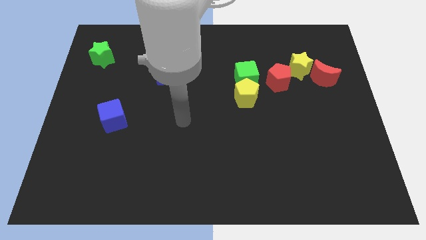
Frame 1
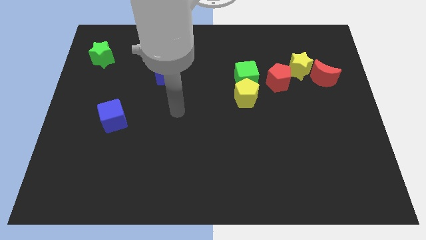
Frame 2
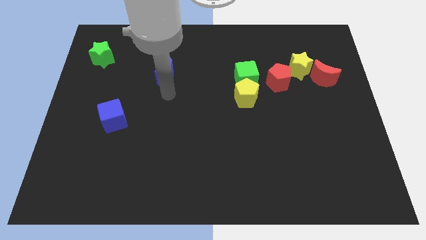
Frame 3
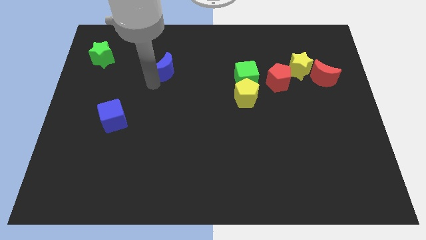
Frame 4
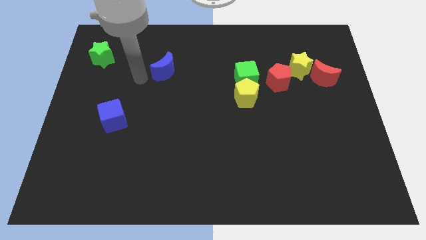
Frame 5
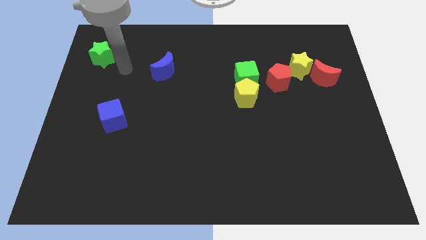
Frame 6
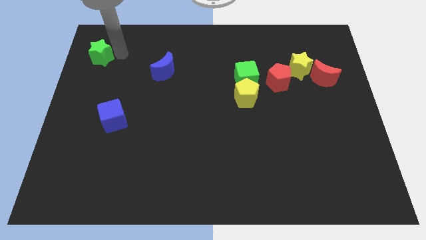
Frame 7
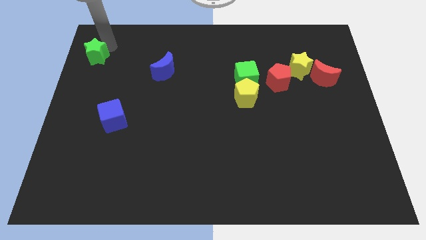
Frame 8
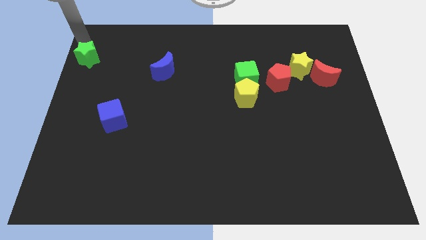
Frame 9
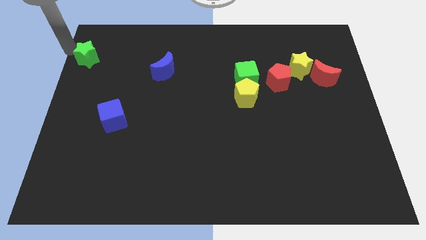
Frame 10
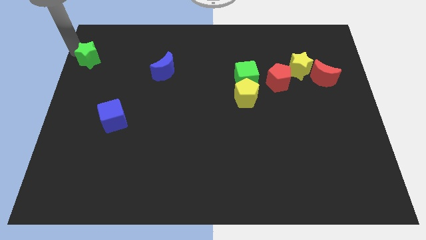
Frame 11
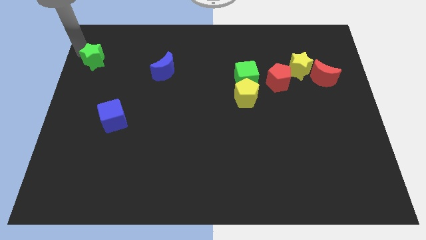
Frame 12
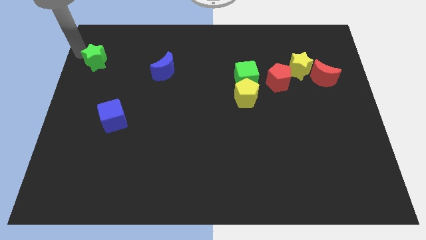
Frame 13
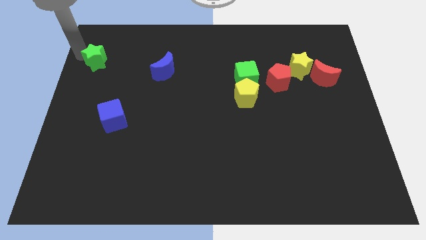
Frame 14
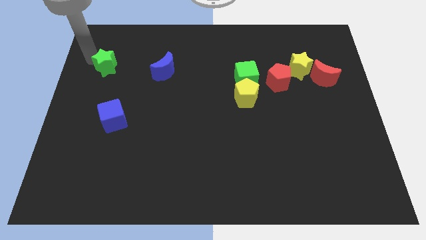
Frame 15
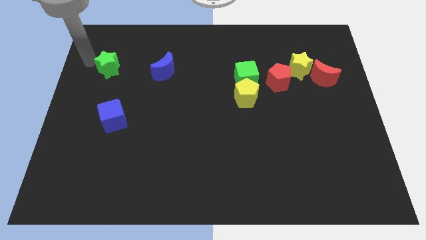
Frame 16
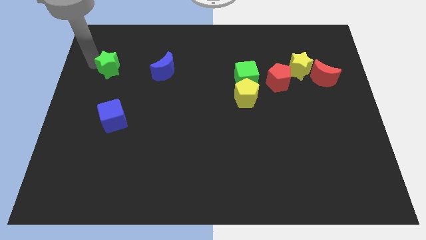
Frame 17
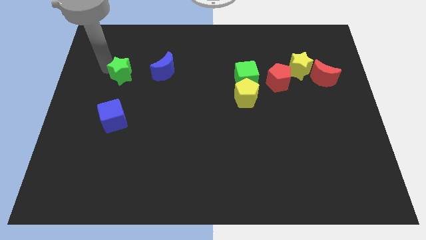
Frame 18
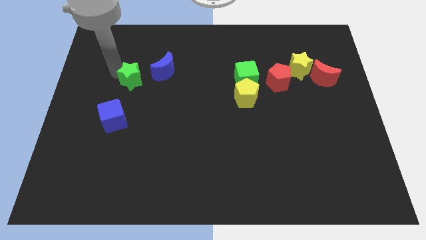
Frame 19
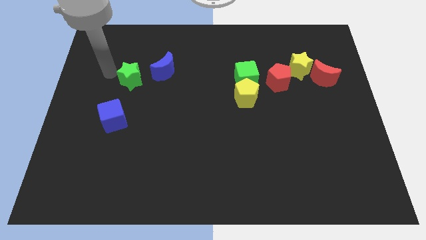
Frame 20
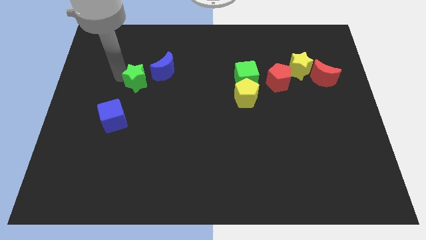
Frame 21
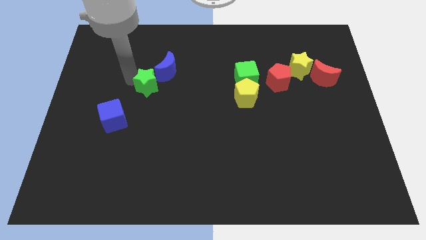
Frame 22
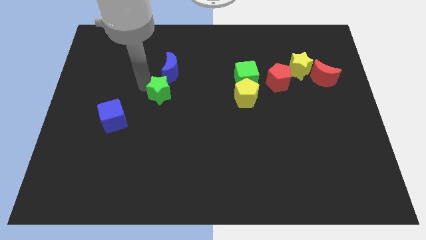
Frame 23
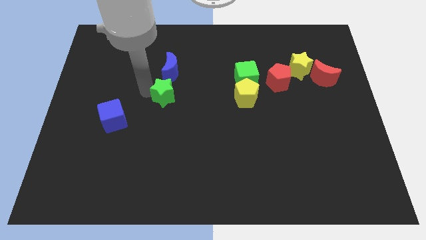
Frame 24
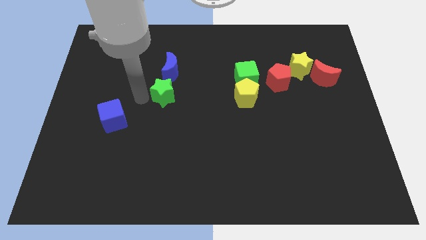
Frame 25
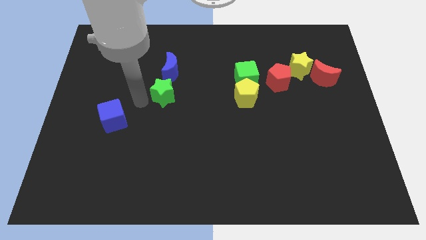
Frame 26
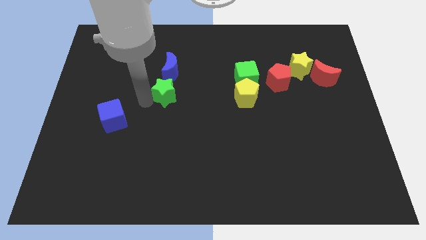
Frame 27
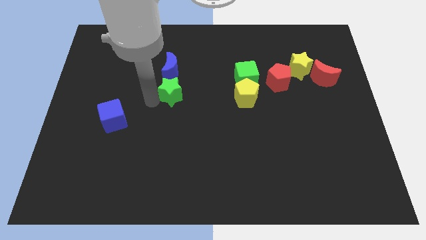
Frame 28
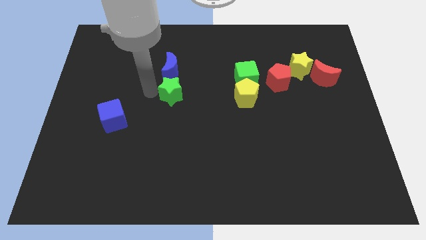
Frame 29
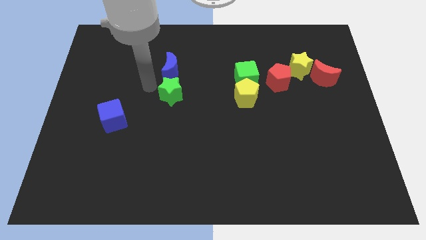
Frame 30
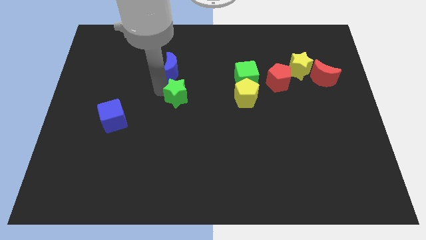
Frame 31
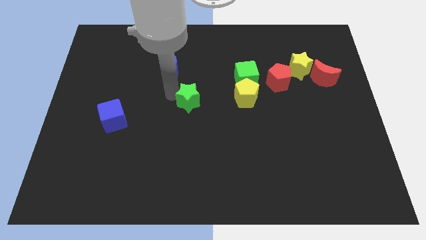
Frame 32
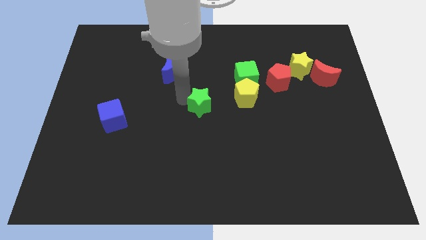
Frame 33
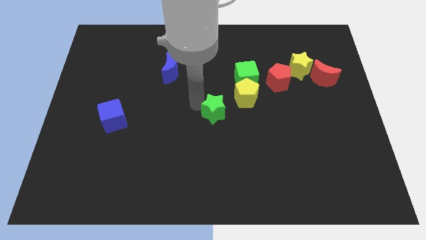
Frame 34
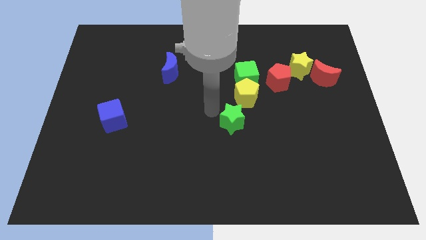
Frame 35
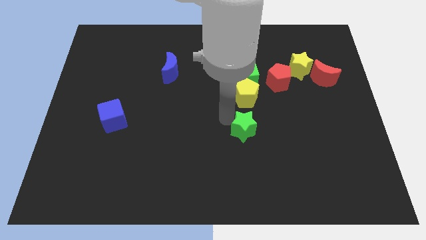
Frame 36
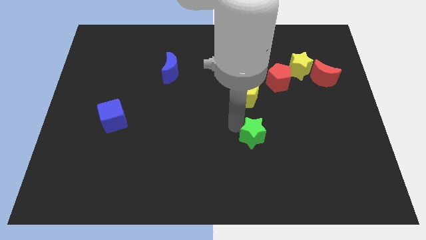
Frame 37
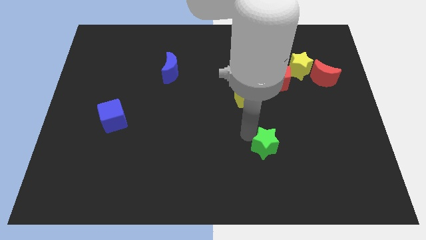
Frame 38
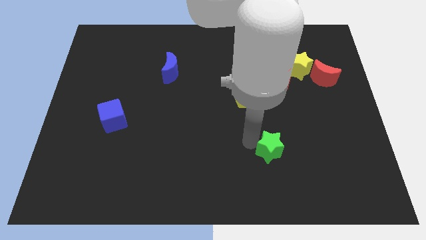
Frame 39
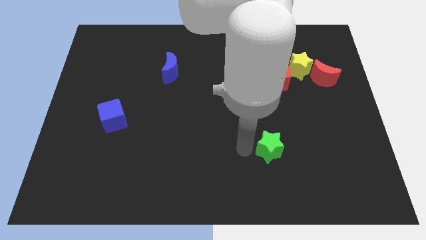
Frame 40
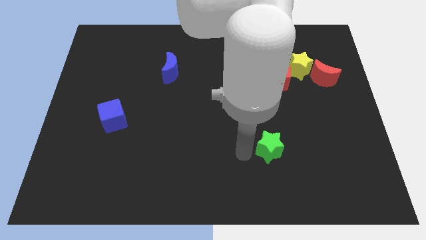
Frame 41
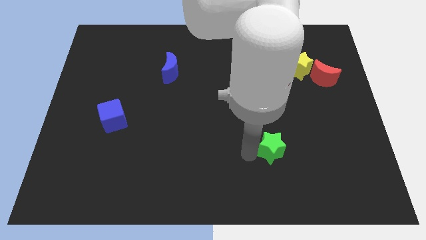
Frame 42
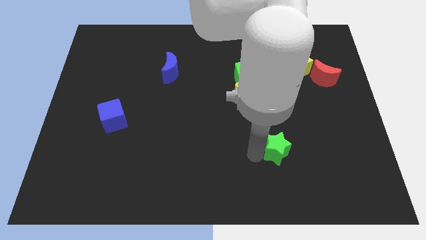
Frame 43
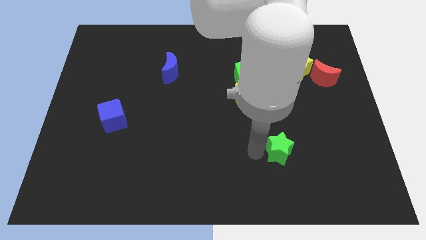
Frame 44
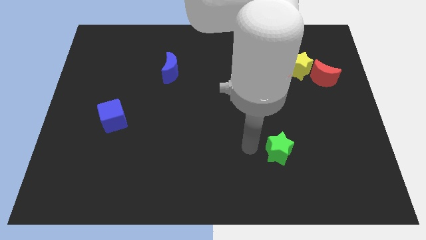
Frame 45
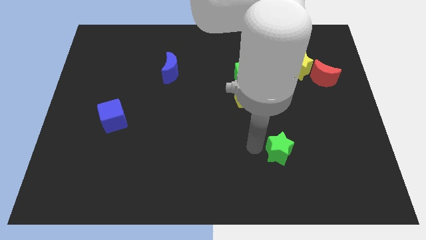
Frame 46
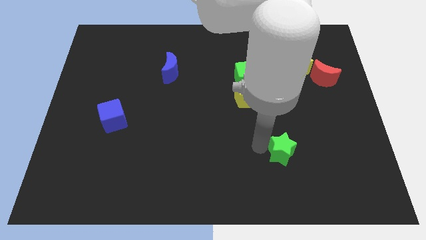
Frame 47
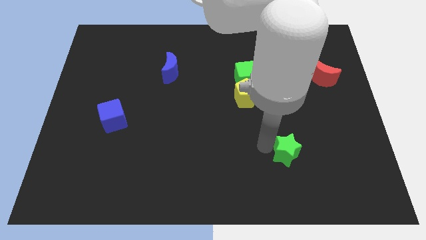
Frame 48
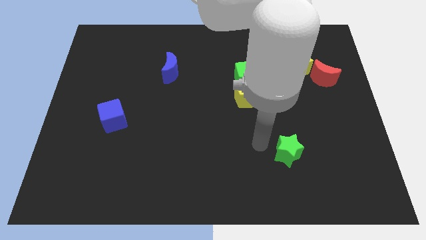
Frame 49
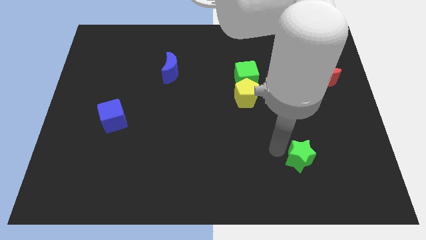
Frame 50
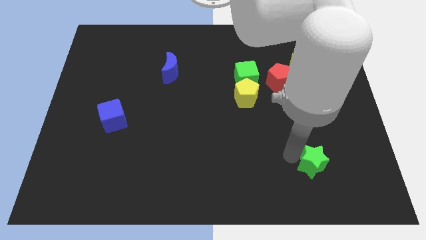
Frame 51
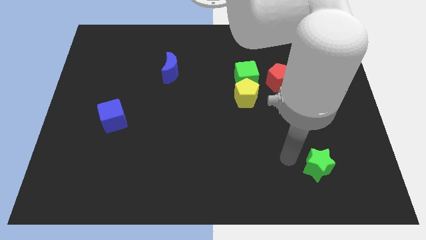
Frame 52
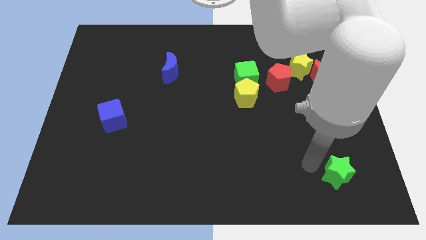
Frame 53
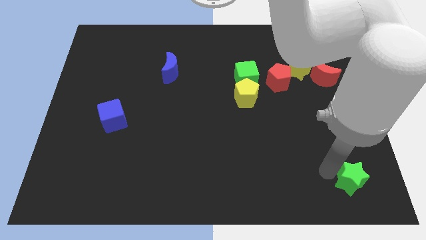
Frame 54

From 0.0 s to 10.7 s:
push the green star to the bottom right corner

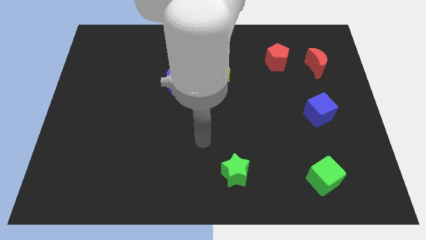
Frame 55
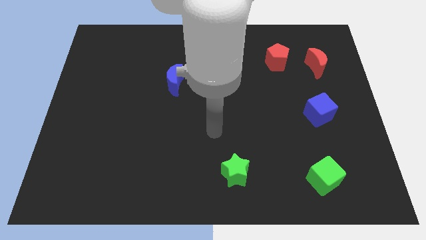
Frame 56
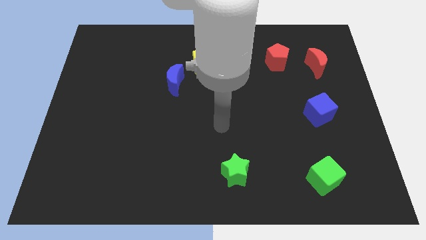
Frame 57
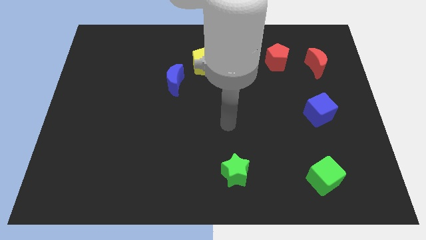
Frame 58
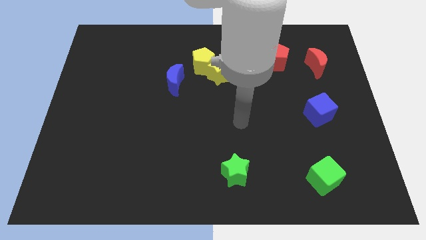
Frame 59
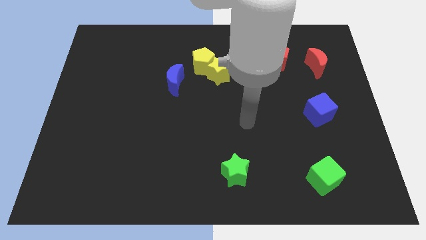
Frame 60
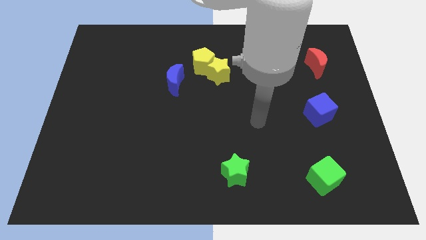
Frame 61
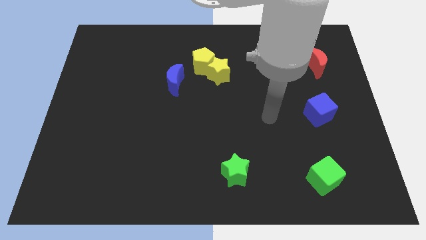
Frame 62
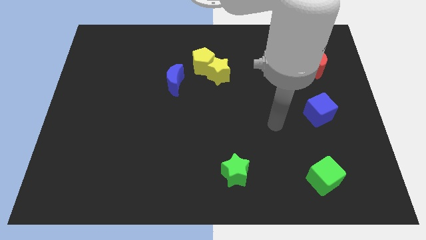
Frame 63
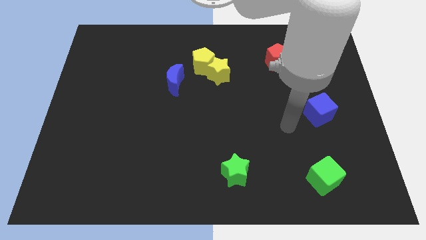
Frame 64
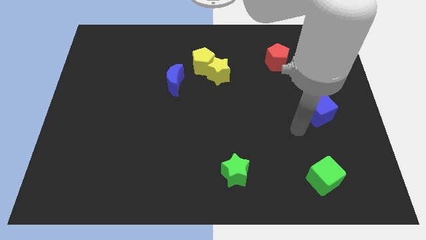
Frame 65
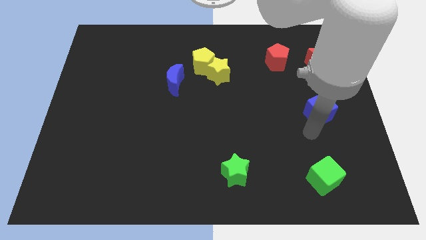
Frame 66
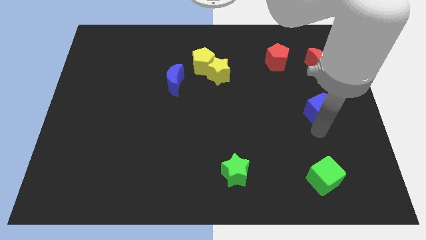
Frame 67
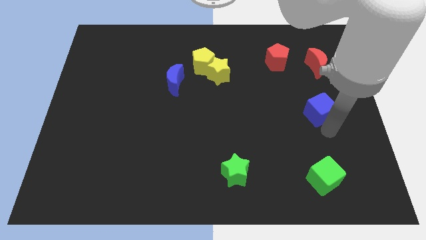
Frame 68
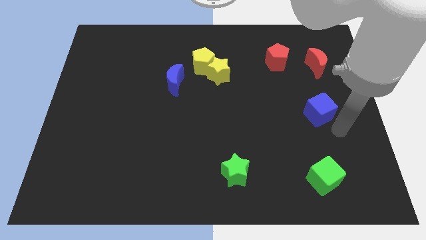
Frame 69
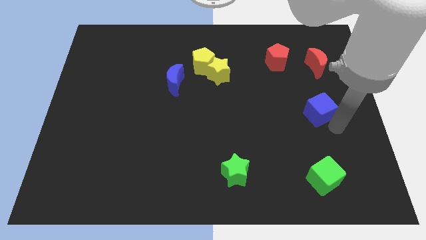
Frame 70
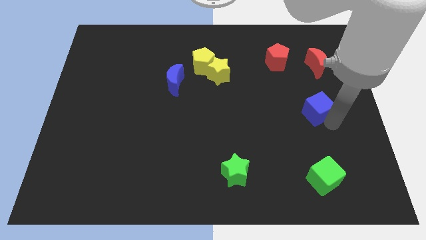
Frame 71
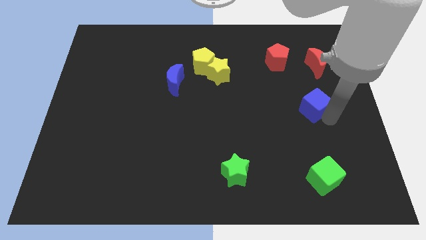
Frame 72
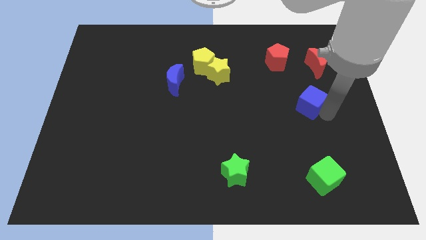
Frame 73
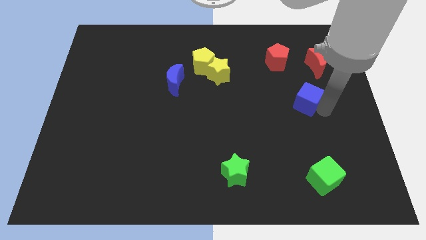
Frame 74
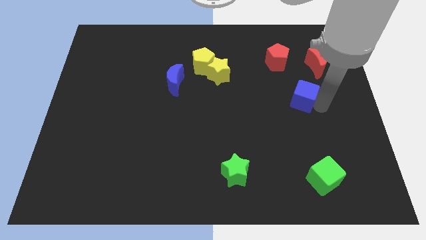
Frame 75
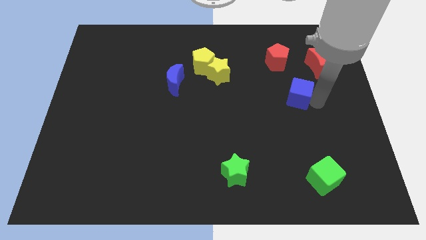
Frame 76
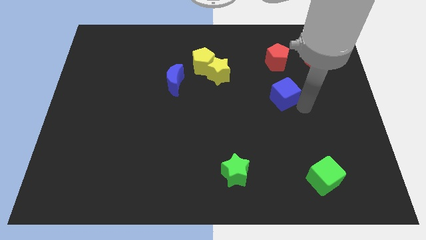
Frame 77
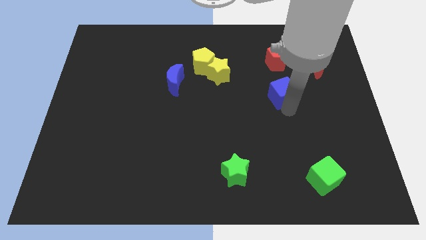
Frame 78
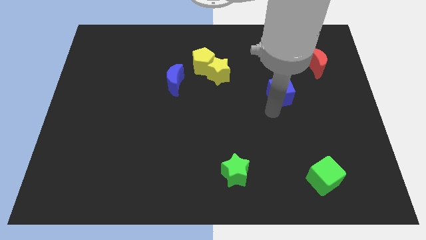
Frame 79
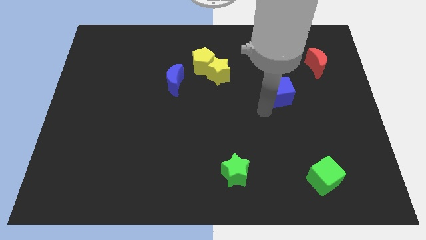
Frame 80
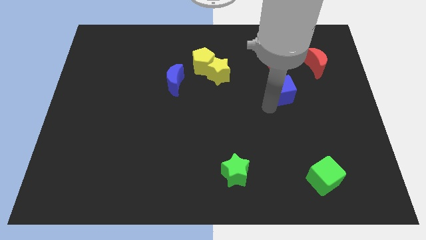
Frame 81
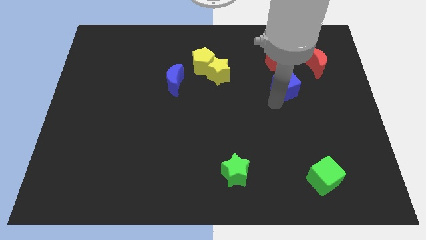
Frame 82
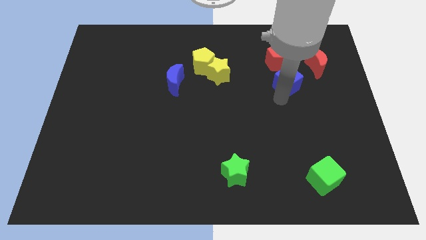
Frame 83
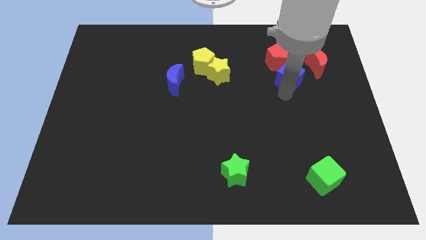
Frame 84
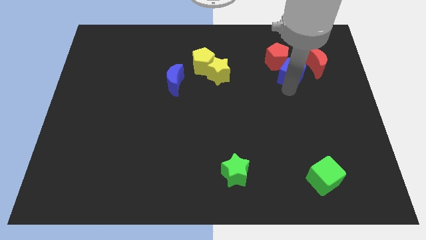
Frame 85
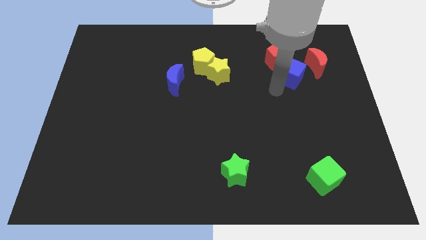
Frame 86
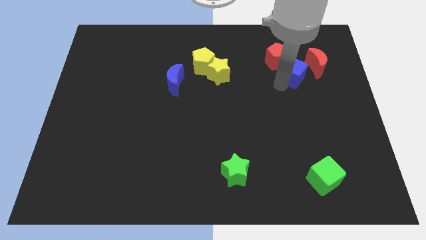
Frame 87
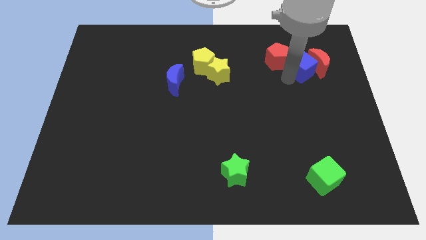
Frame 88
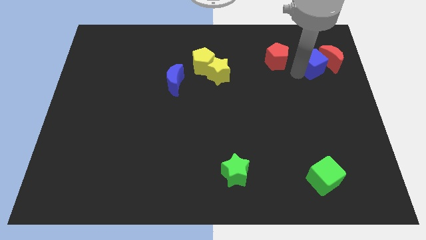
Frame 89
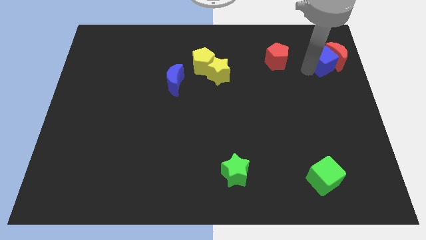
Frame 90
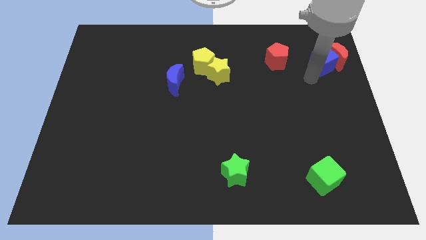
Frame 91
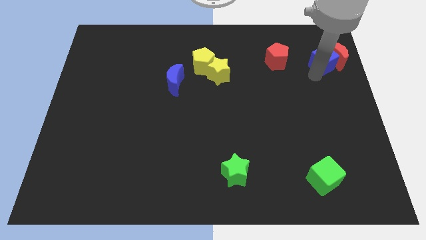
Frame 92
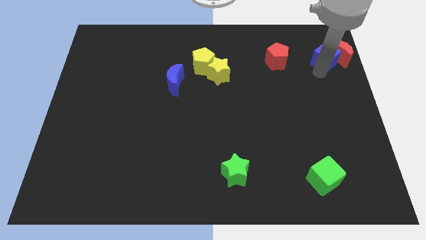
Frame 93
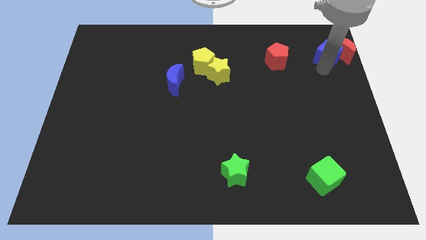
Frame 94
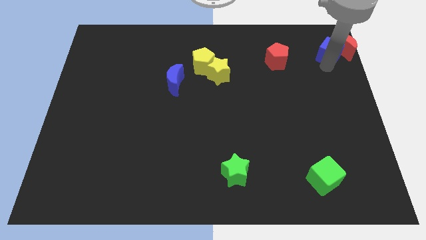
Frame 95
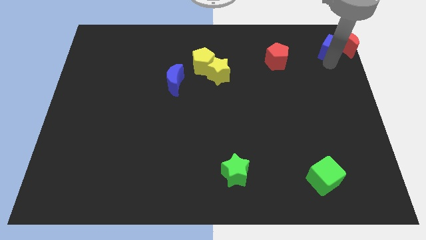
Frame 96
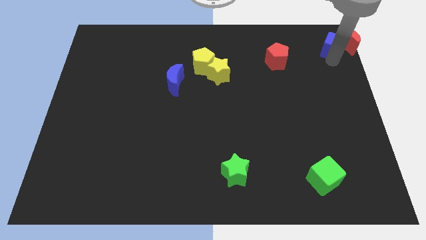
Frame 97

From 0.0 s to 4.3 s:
slide the blue cube to the upper right corner
